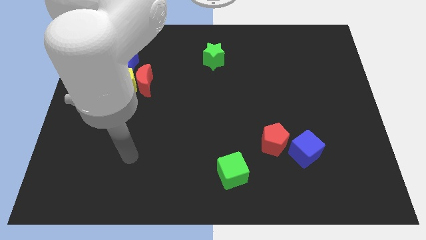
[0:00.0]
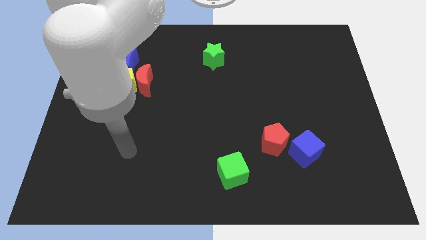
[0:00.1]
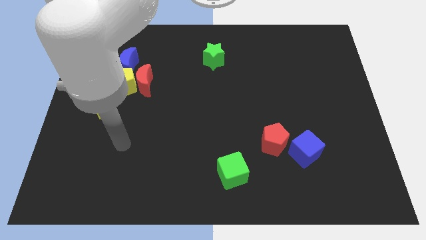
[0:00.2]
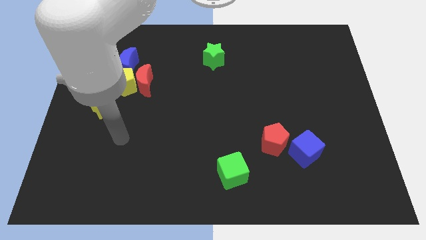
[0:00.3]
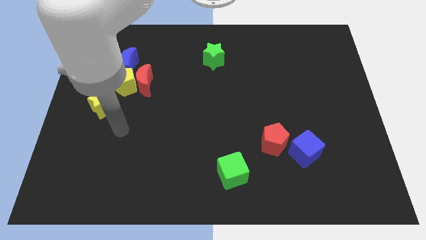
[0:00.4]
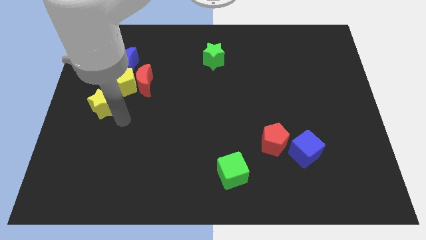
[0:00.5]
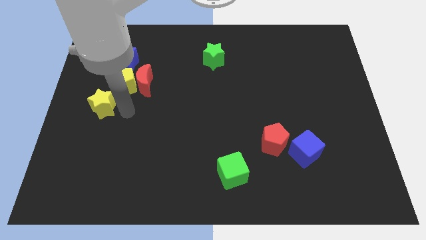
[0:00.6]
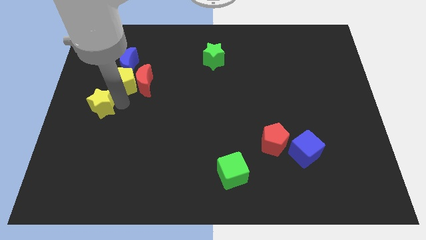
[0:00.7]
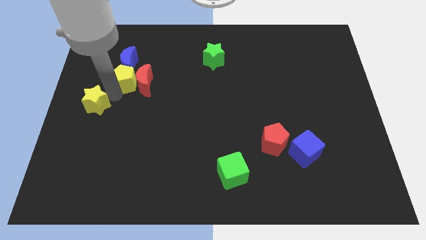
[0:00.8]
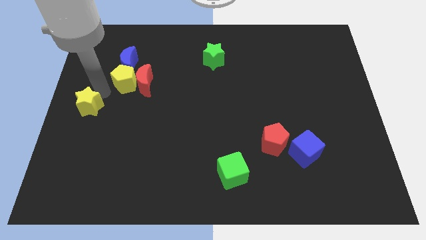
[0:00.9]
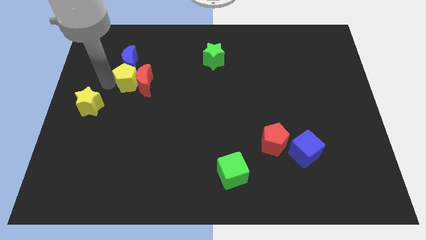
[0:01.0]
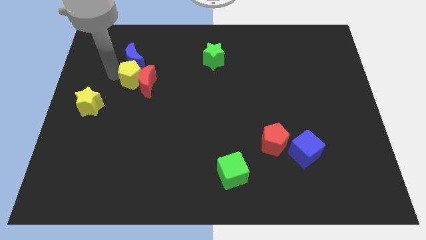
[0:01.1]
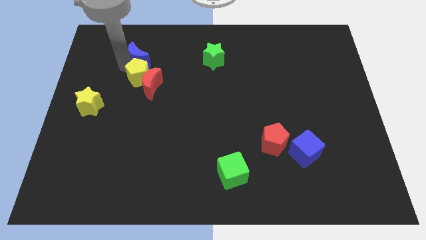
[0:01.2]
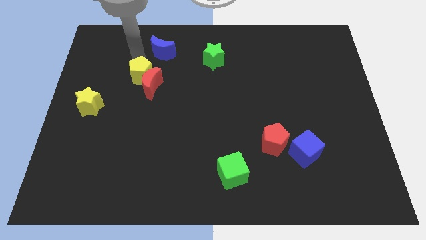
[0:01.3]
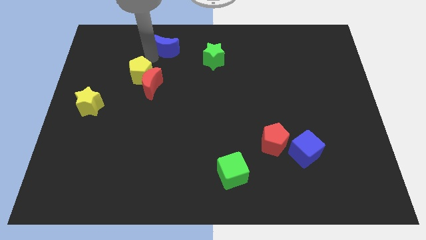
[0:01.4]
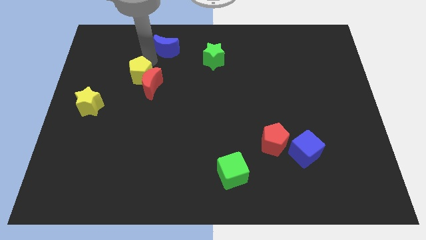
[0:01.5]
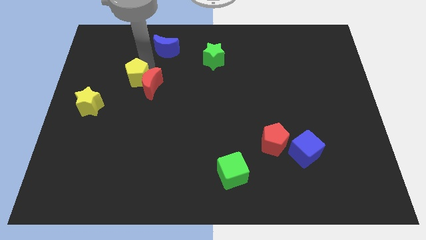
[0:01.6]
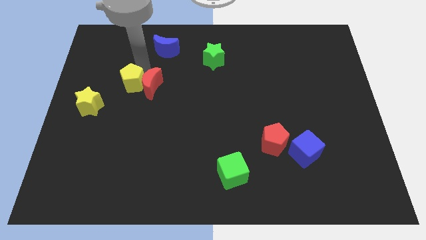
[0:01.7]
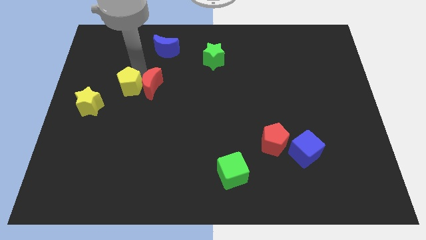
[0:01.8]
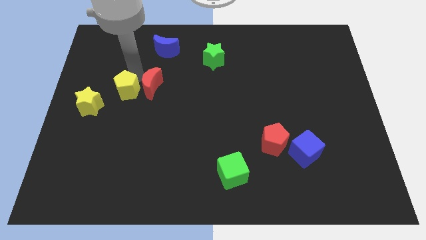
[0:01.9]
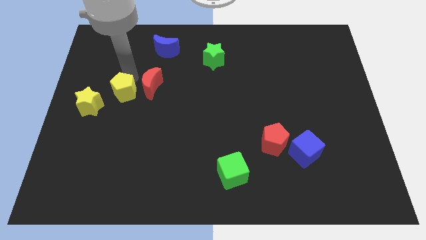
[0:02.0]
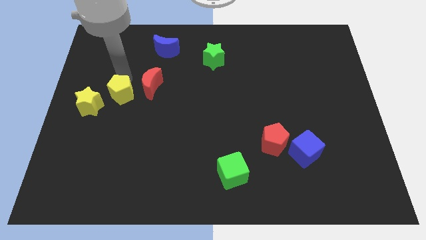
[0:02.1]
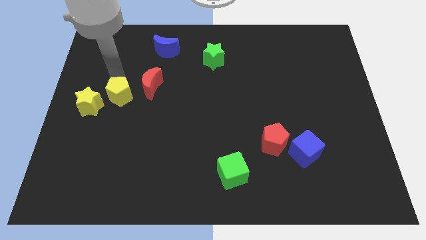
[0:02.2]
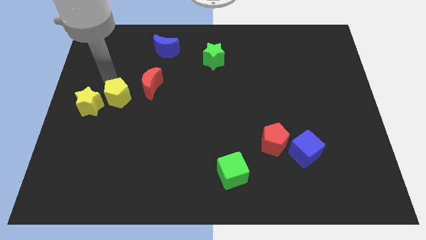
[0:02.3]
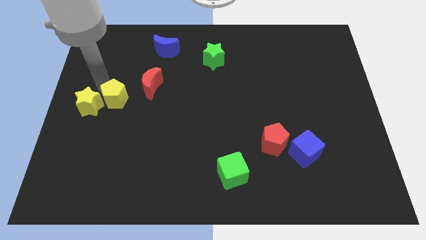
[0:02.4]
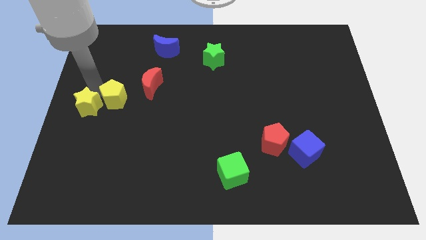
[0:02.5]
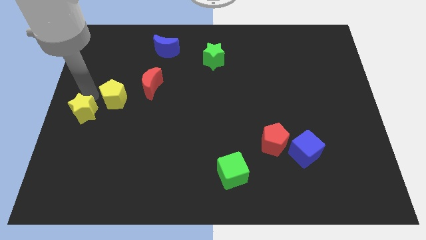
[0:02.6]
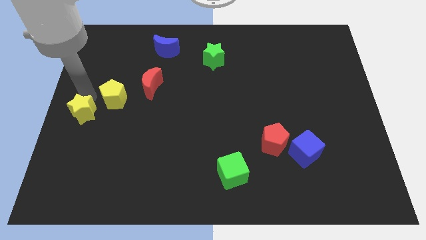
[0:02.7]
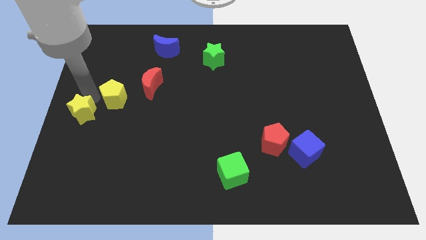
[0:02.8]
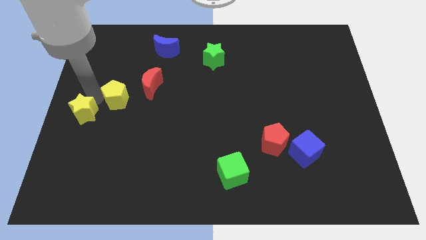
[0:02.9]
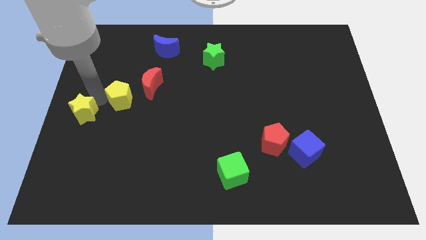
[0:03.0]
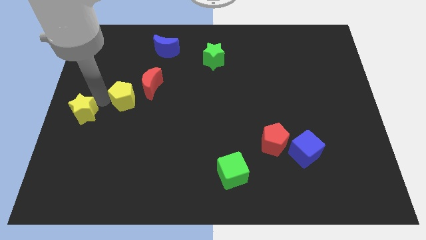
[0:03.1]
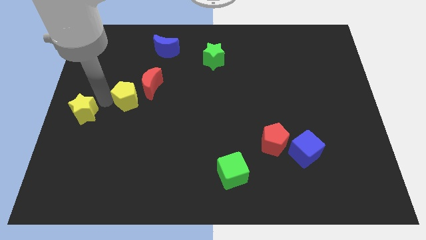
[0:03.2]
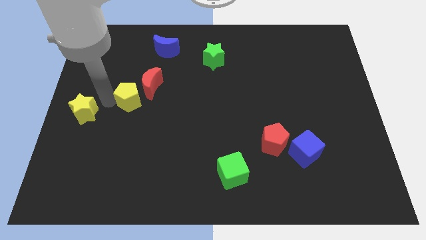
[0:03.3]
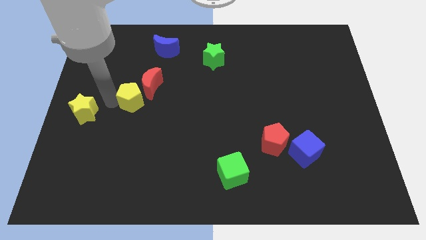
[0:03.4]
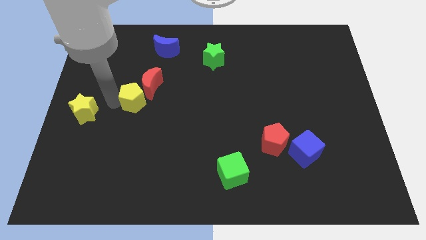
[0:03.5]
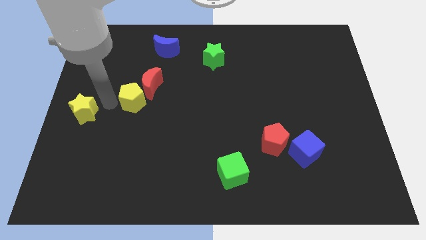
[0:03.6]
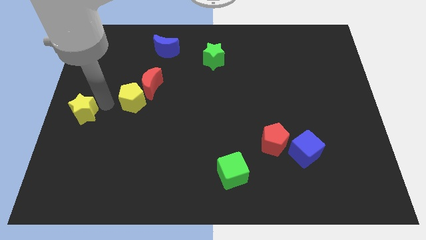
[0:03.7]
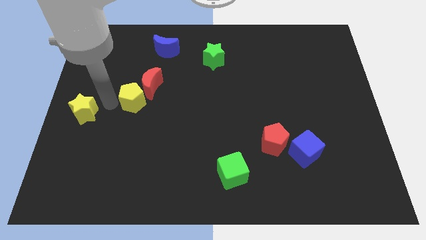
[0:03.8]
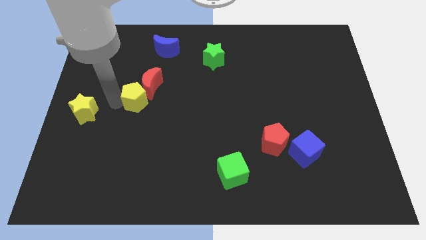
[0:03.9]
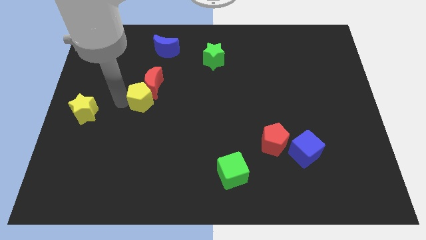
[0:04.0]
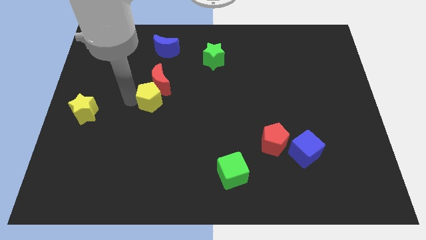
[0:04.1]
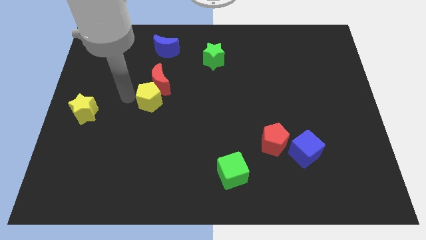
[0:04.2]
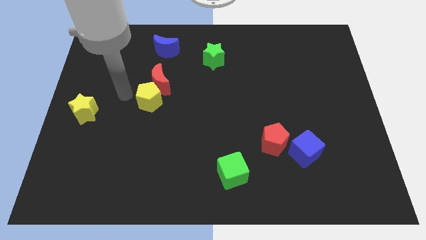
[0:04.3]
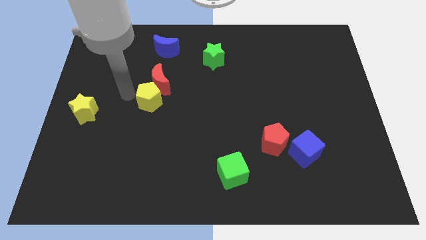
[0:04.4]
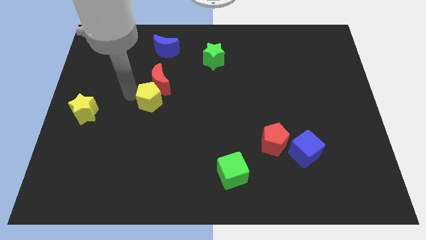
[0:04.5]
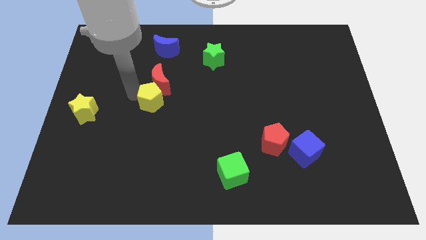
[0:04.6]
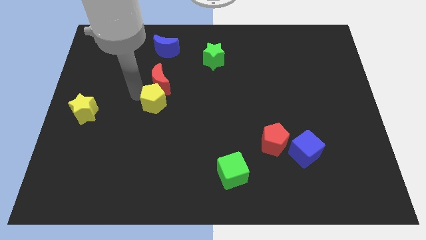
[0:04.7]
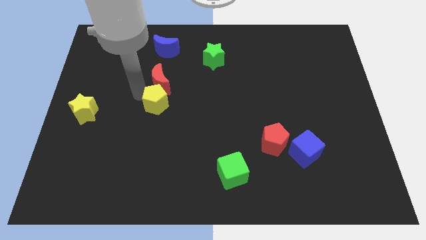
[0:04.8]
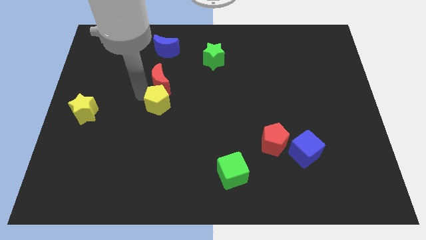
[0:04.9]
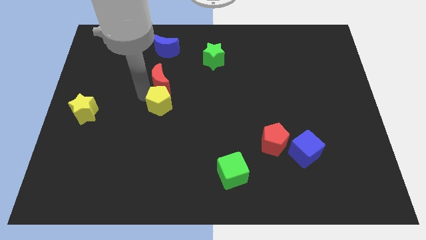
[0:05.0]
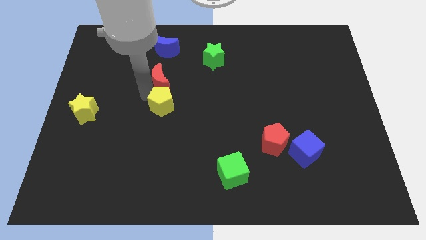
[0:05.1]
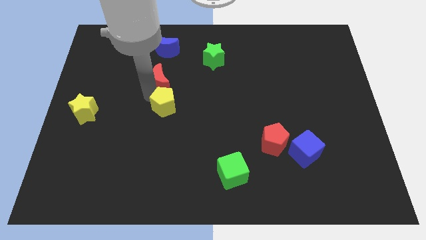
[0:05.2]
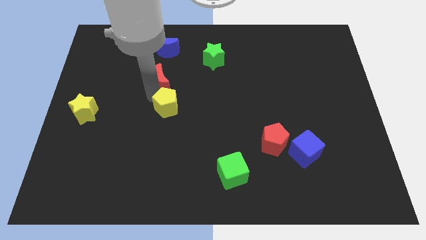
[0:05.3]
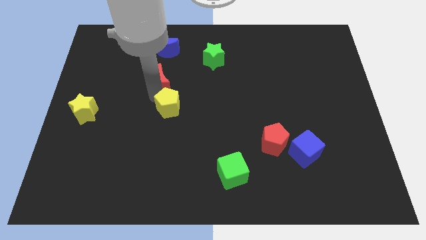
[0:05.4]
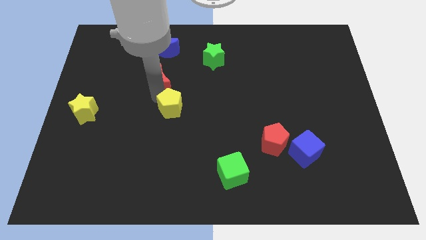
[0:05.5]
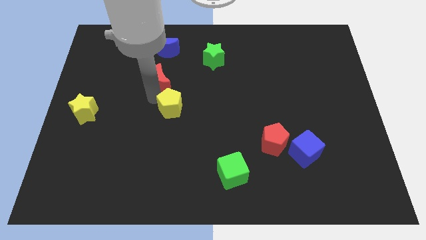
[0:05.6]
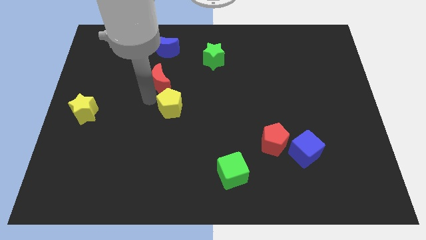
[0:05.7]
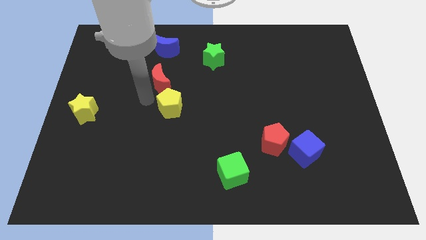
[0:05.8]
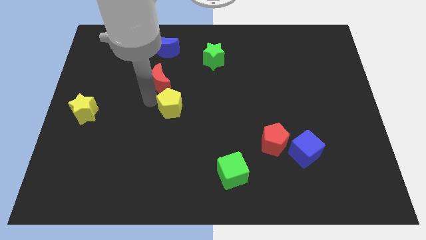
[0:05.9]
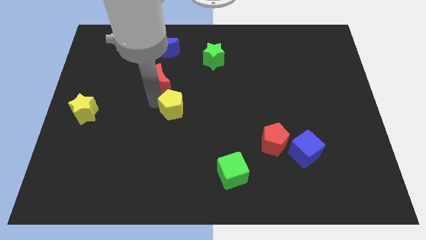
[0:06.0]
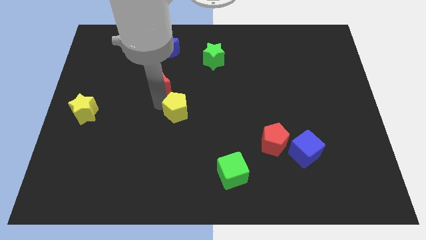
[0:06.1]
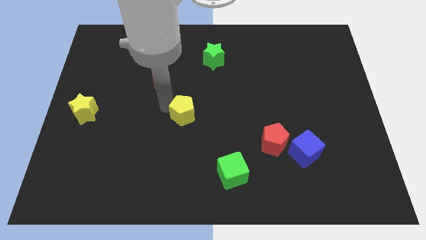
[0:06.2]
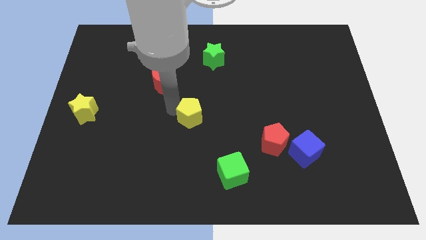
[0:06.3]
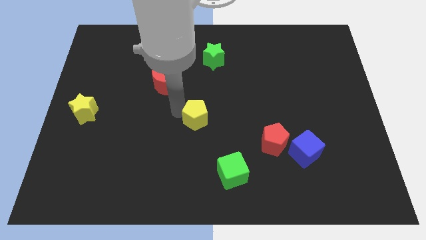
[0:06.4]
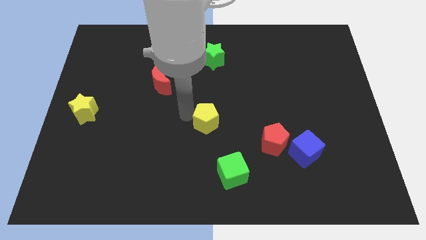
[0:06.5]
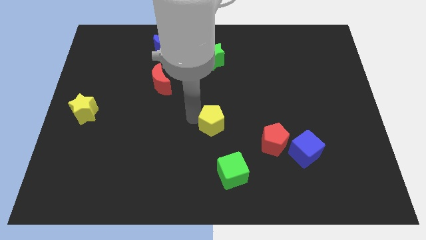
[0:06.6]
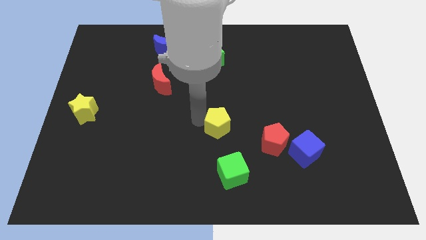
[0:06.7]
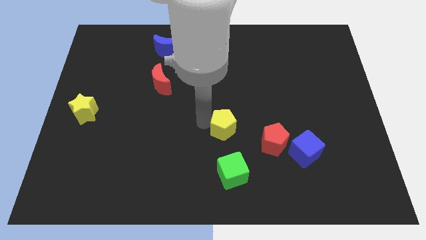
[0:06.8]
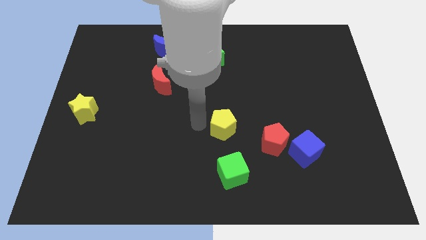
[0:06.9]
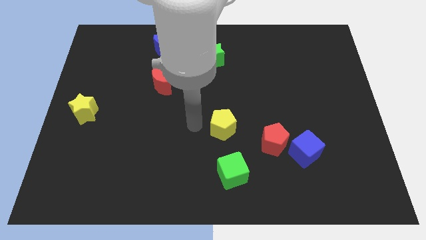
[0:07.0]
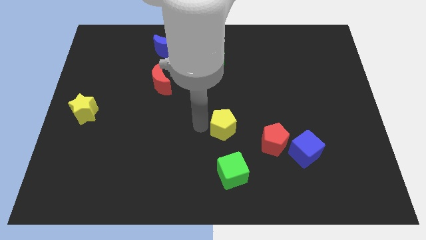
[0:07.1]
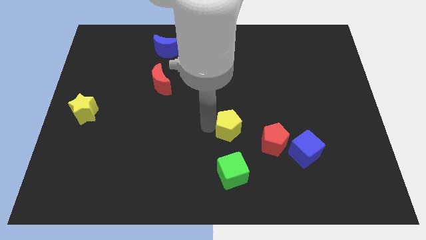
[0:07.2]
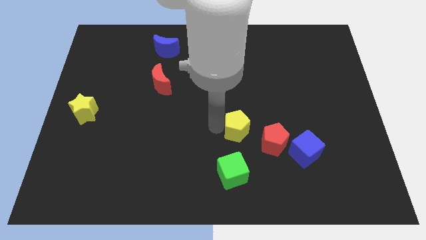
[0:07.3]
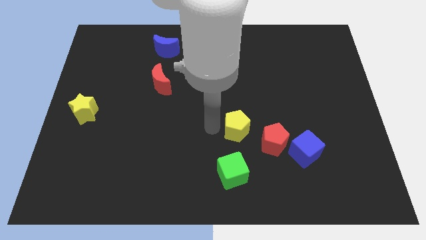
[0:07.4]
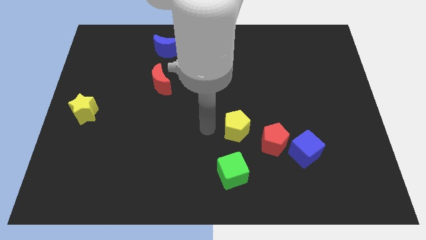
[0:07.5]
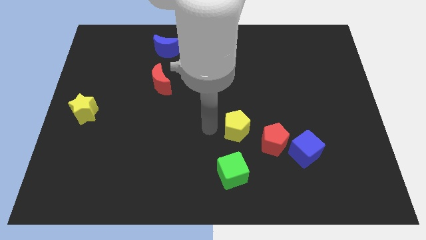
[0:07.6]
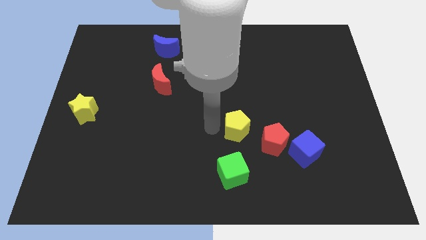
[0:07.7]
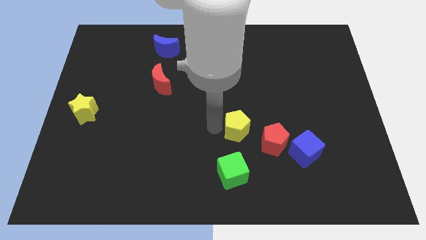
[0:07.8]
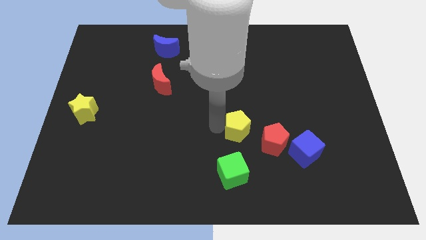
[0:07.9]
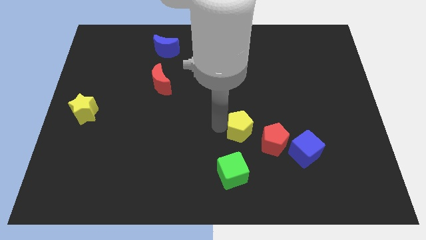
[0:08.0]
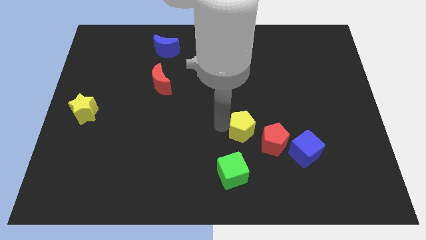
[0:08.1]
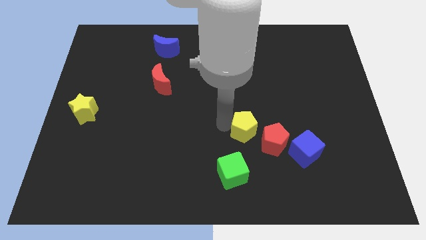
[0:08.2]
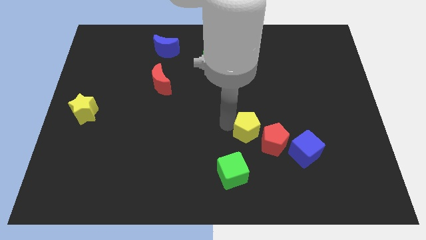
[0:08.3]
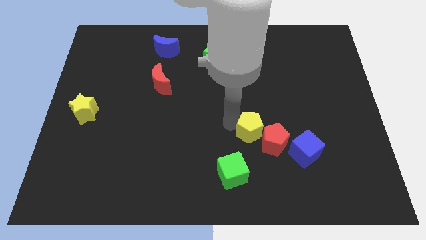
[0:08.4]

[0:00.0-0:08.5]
put the yellow pentagon to the red pentagon
